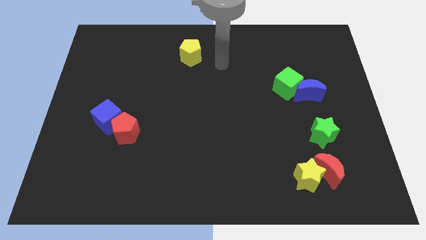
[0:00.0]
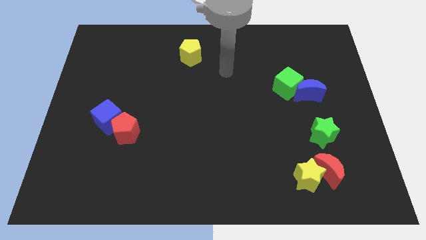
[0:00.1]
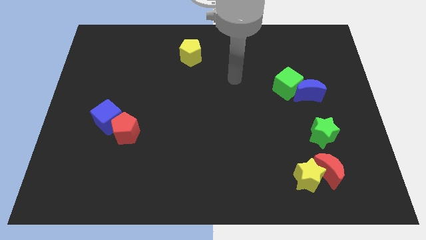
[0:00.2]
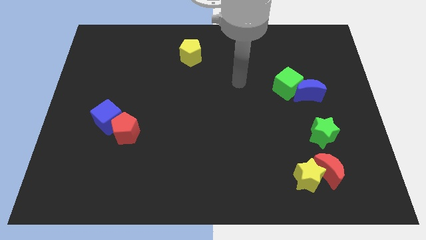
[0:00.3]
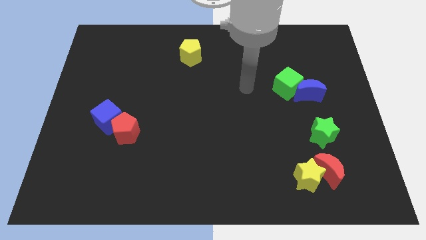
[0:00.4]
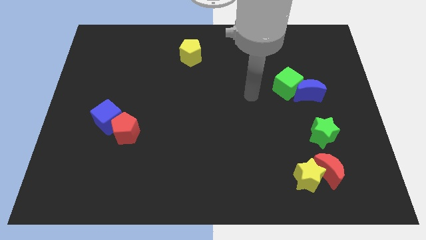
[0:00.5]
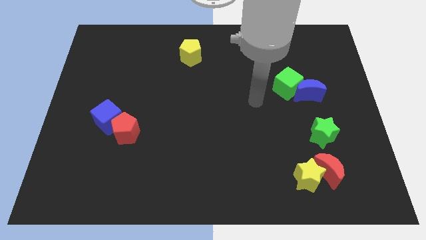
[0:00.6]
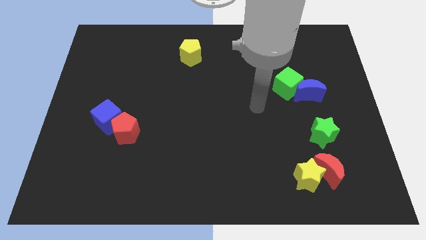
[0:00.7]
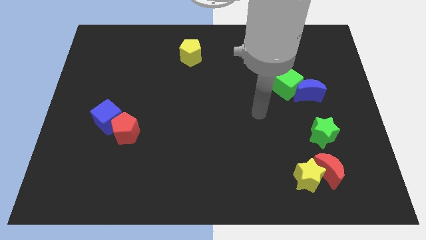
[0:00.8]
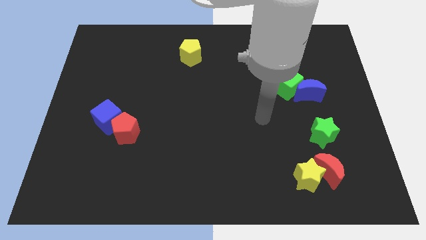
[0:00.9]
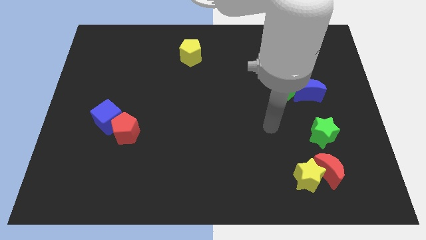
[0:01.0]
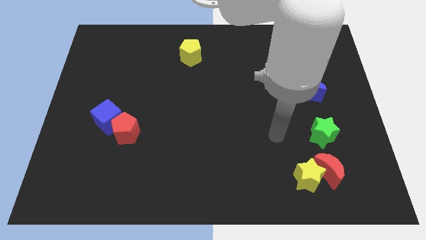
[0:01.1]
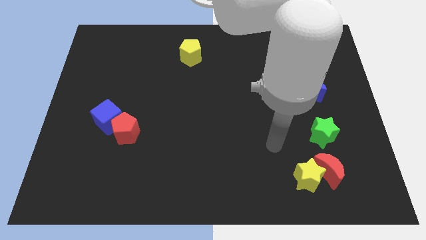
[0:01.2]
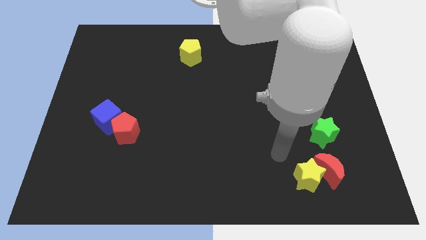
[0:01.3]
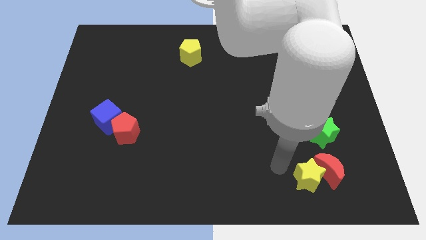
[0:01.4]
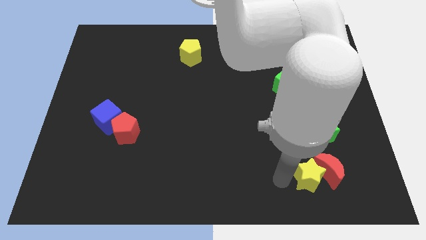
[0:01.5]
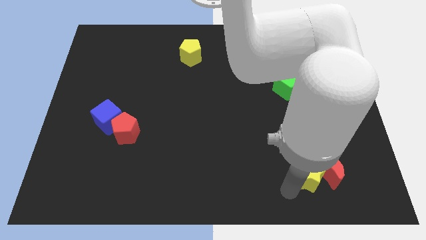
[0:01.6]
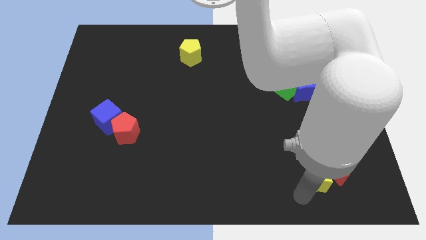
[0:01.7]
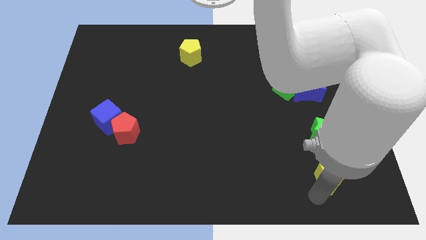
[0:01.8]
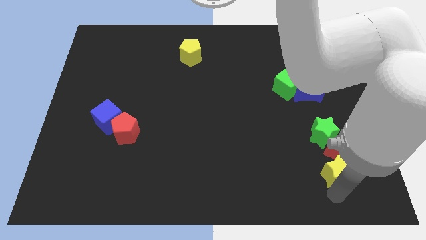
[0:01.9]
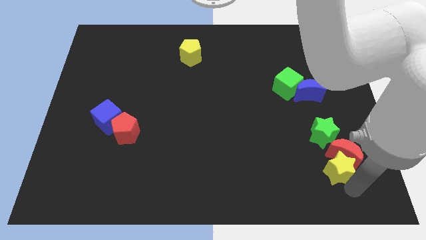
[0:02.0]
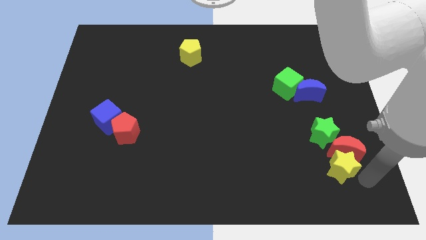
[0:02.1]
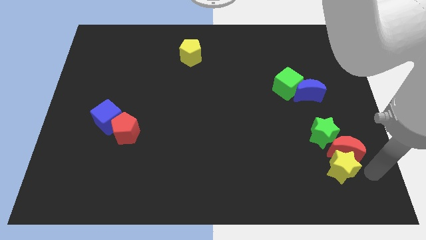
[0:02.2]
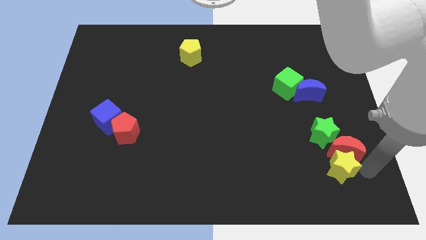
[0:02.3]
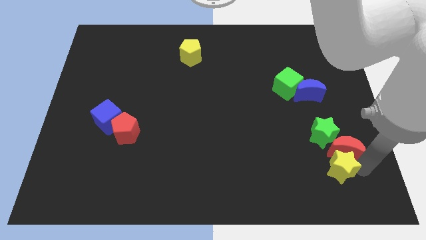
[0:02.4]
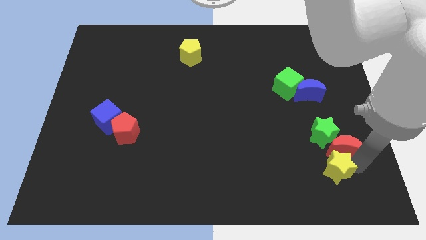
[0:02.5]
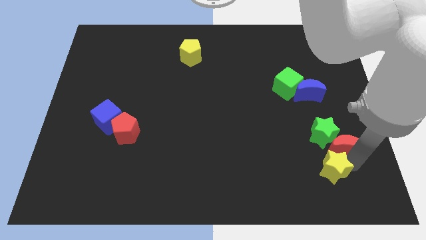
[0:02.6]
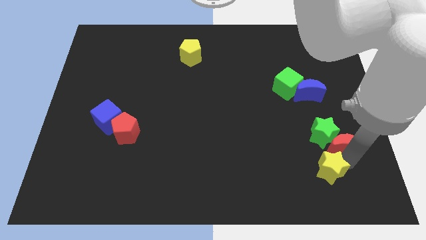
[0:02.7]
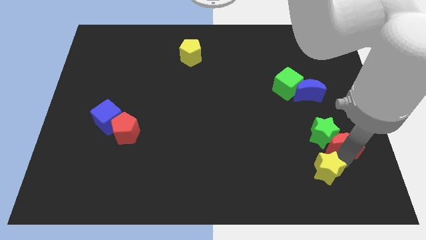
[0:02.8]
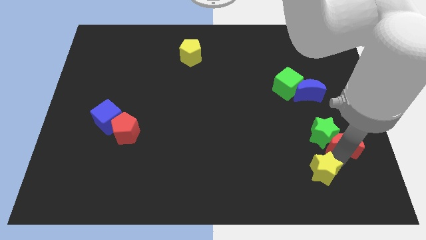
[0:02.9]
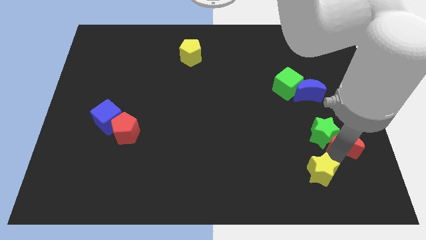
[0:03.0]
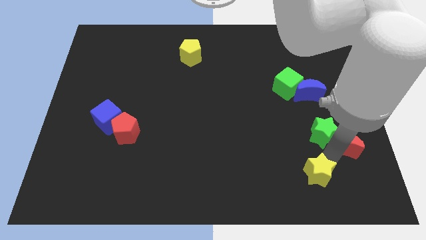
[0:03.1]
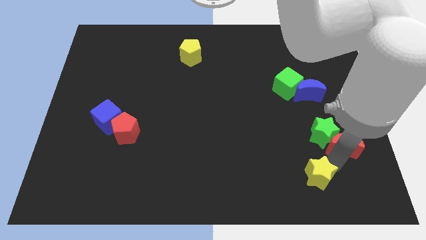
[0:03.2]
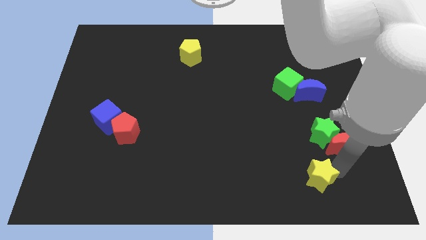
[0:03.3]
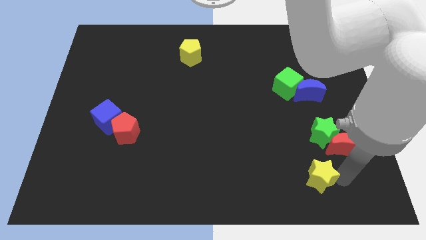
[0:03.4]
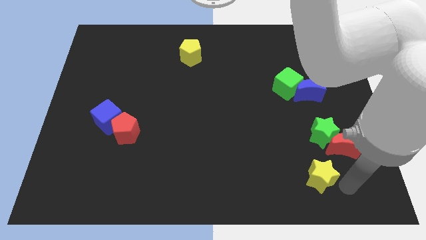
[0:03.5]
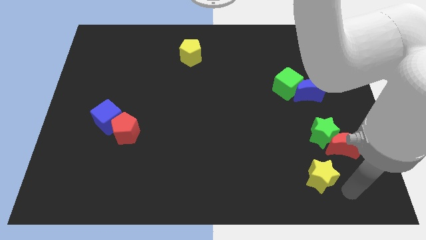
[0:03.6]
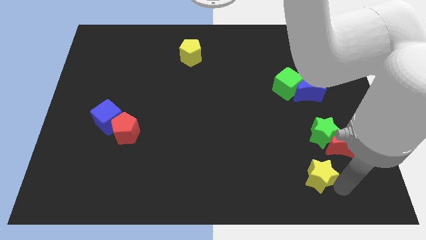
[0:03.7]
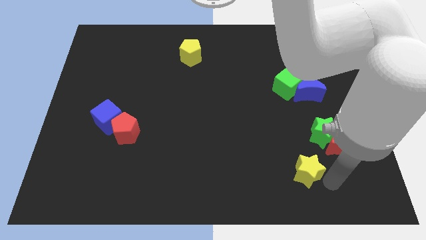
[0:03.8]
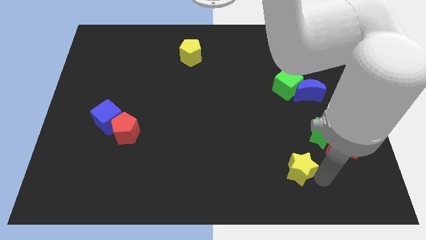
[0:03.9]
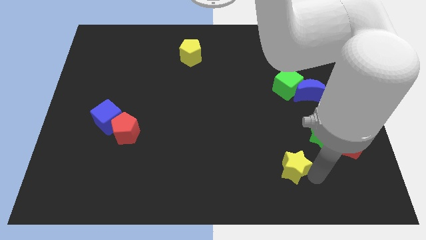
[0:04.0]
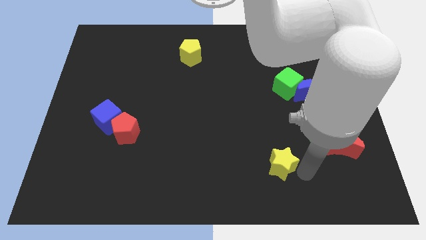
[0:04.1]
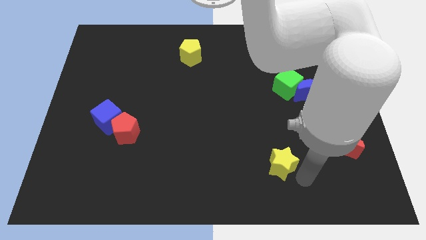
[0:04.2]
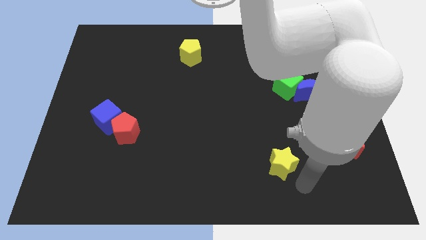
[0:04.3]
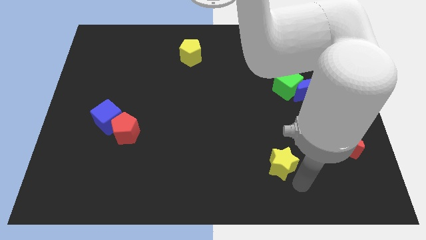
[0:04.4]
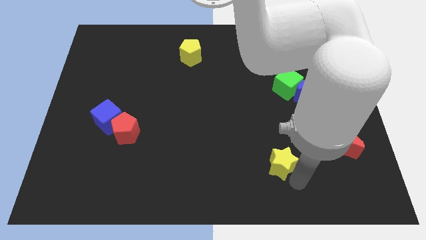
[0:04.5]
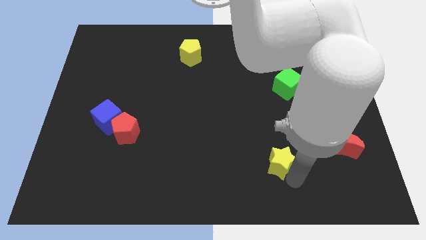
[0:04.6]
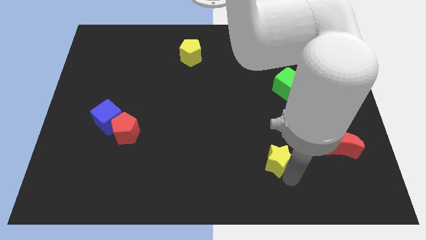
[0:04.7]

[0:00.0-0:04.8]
slide the yellow star somewhat upwards and to the left diagonally

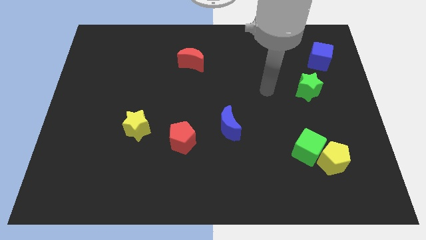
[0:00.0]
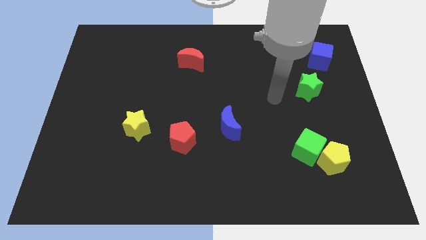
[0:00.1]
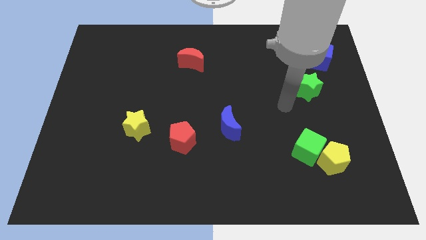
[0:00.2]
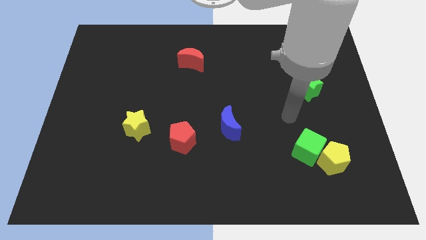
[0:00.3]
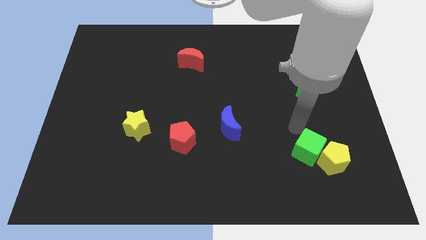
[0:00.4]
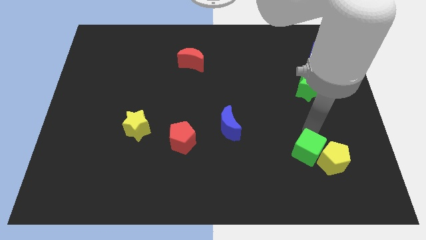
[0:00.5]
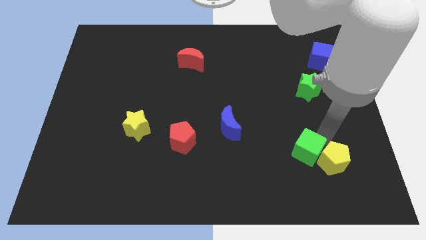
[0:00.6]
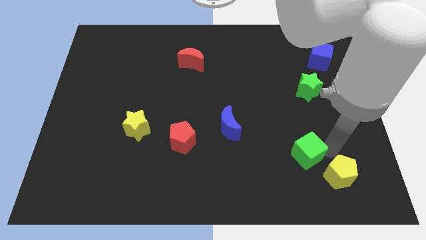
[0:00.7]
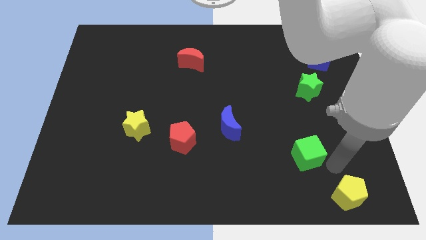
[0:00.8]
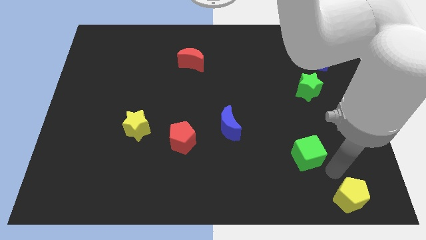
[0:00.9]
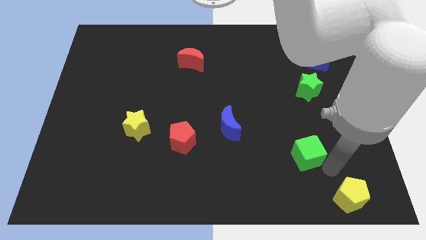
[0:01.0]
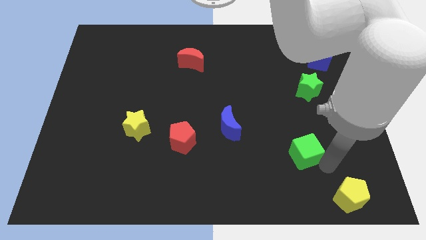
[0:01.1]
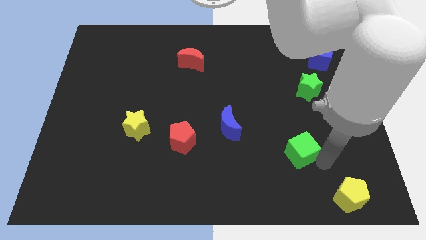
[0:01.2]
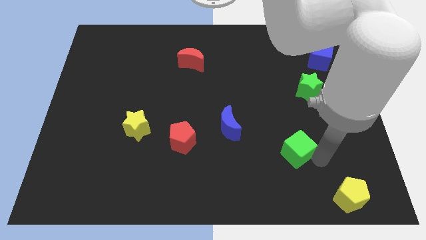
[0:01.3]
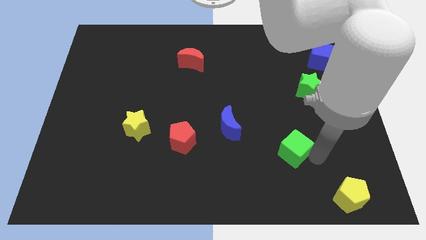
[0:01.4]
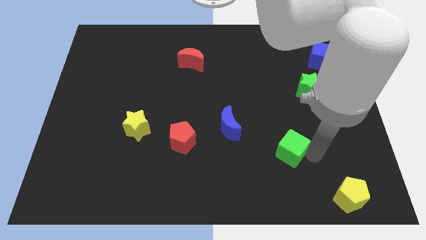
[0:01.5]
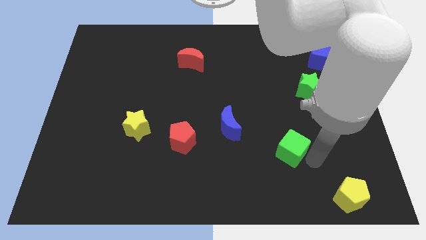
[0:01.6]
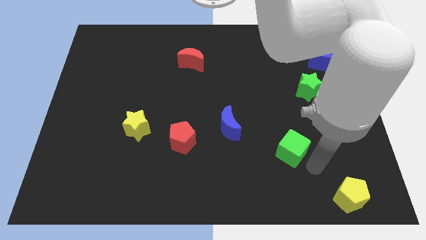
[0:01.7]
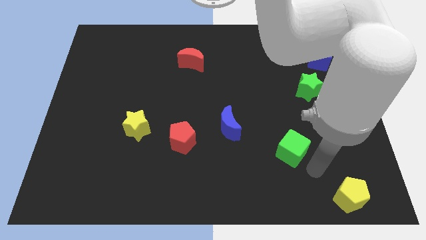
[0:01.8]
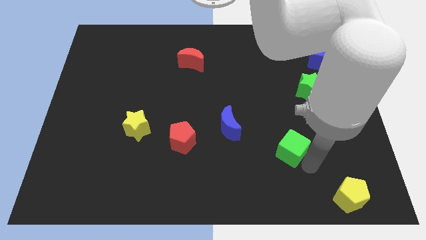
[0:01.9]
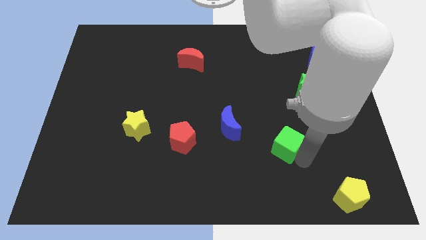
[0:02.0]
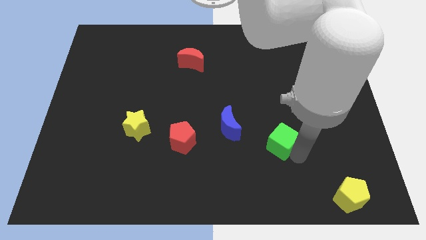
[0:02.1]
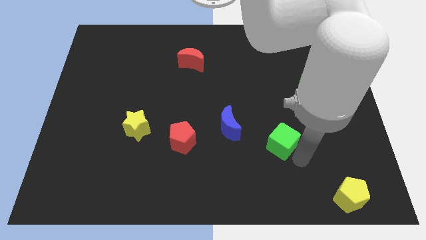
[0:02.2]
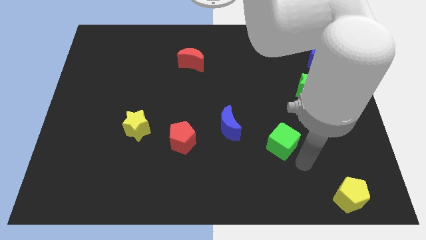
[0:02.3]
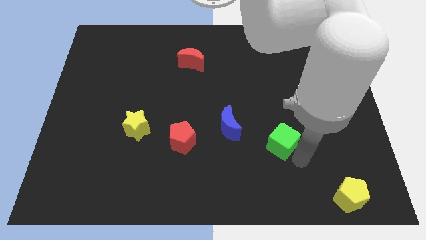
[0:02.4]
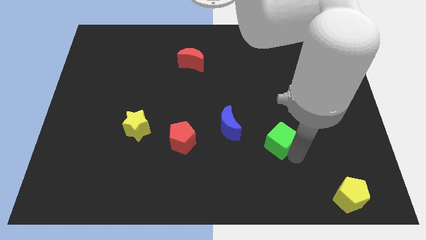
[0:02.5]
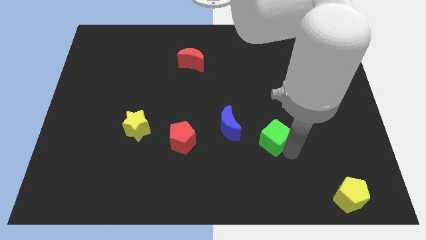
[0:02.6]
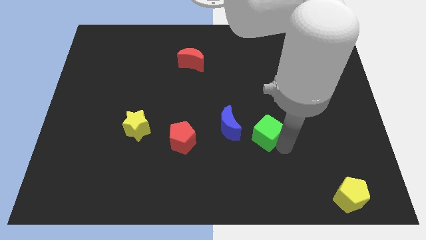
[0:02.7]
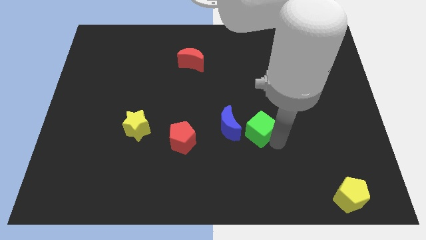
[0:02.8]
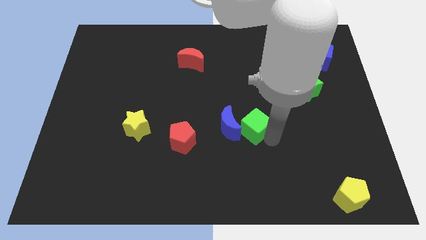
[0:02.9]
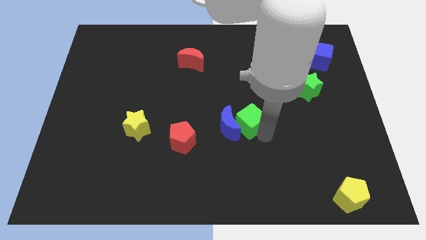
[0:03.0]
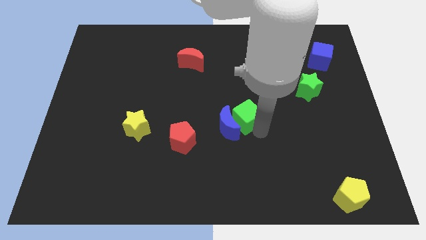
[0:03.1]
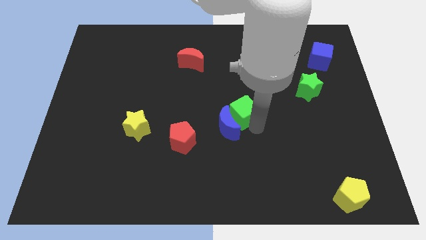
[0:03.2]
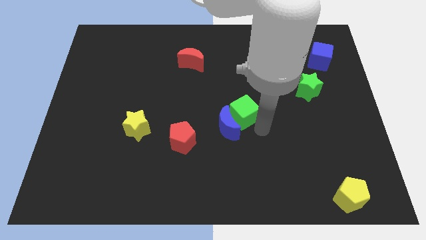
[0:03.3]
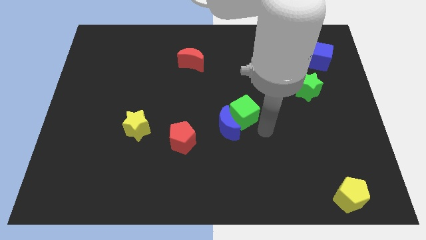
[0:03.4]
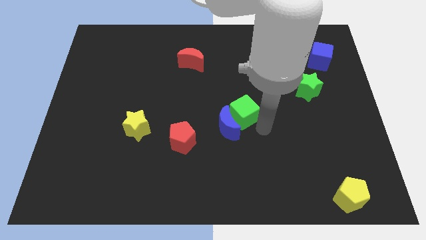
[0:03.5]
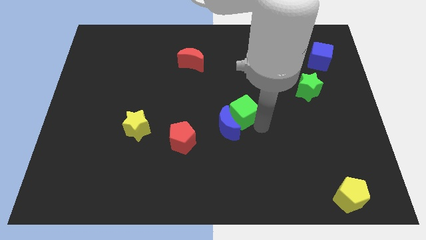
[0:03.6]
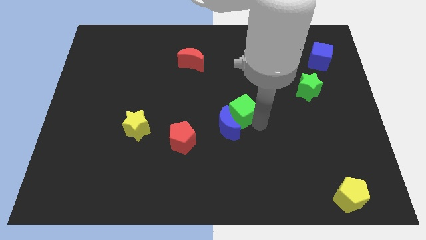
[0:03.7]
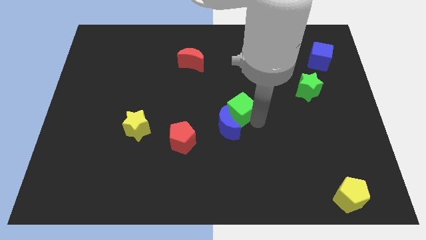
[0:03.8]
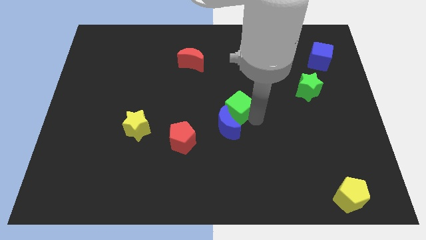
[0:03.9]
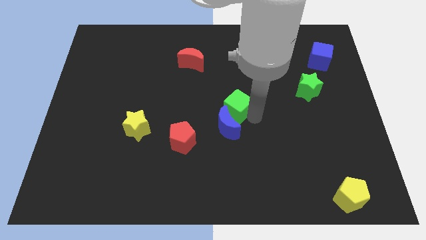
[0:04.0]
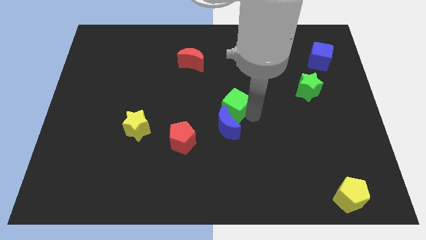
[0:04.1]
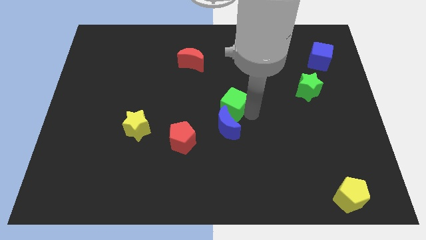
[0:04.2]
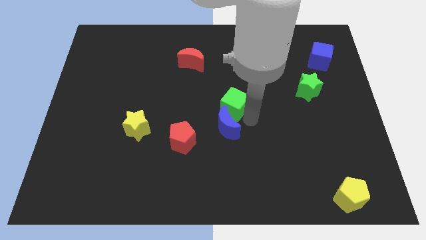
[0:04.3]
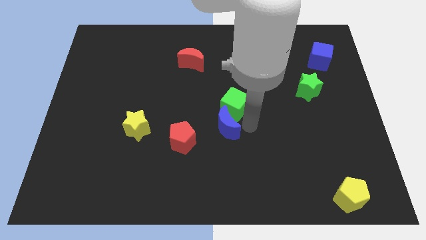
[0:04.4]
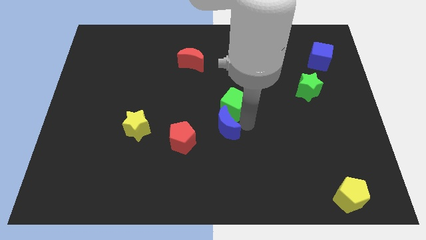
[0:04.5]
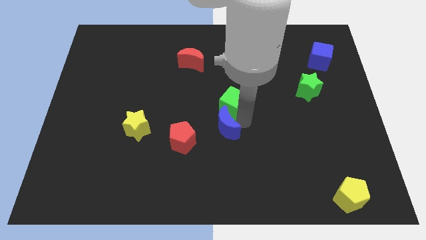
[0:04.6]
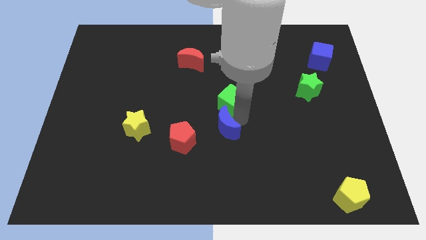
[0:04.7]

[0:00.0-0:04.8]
push the green cube up and left
